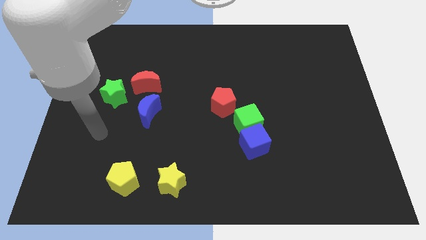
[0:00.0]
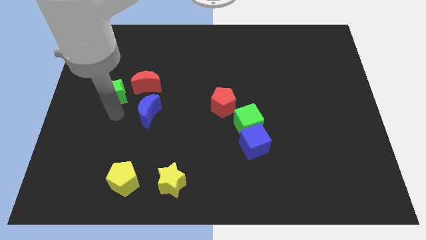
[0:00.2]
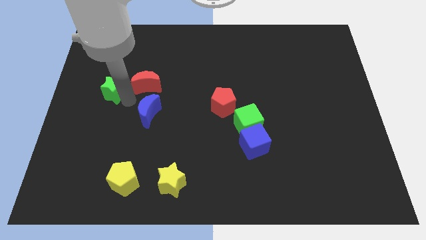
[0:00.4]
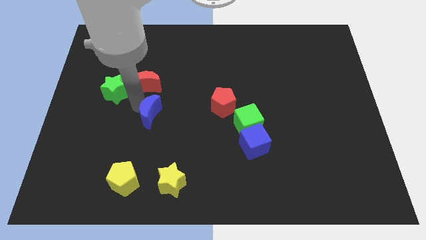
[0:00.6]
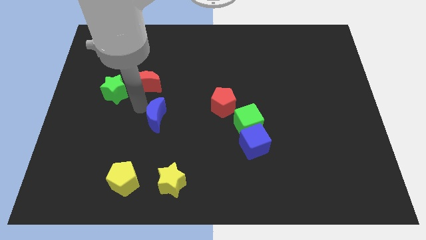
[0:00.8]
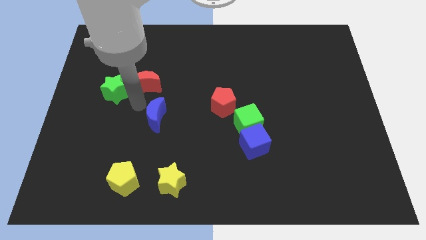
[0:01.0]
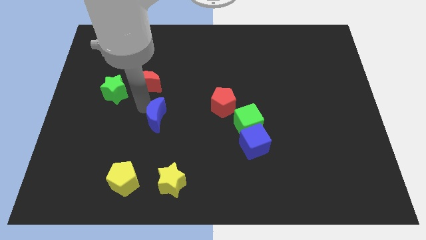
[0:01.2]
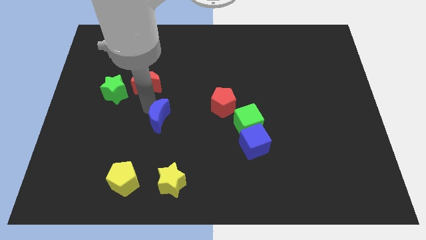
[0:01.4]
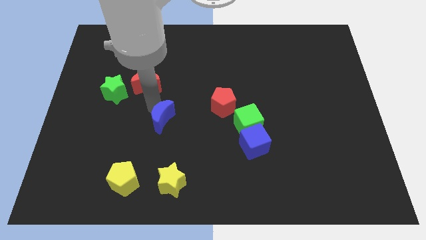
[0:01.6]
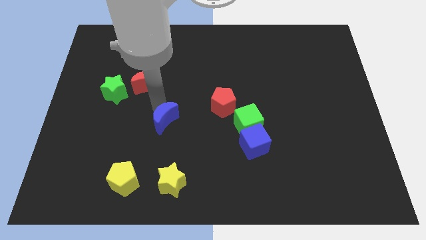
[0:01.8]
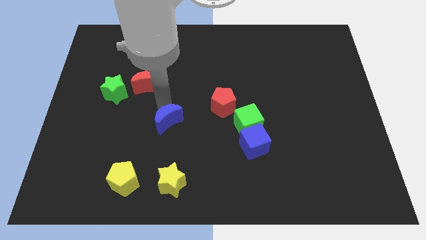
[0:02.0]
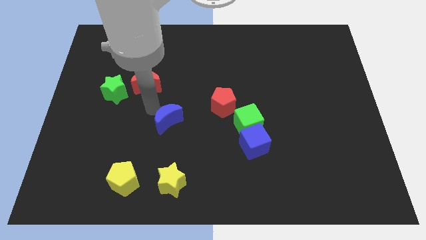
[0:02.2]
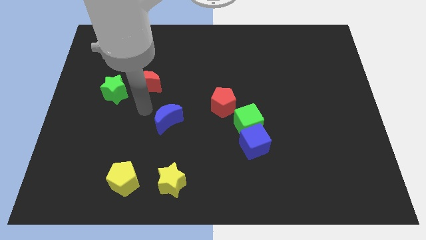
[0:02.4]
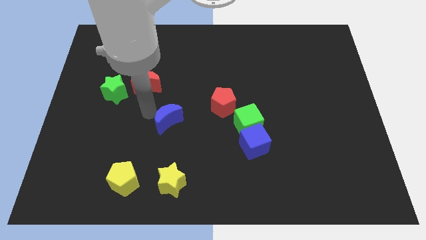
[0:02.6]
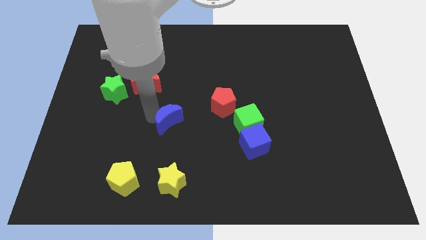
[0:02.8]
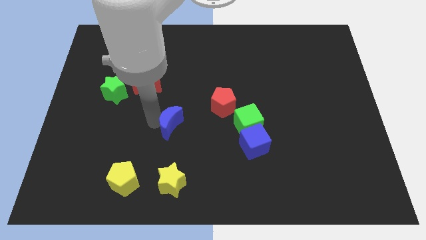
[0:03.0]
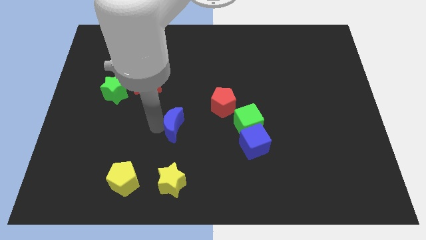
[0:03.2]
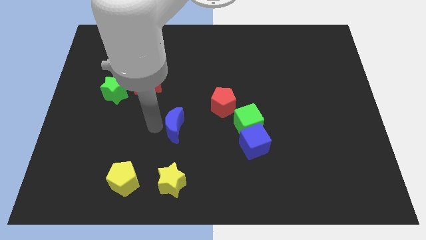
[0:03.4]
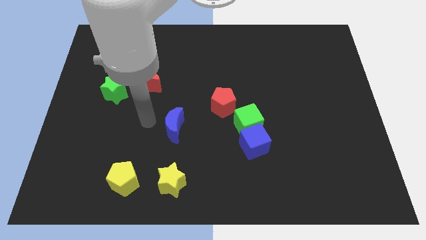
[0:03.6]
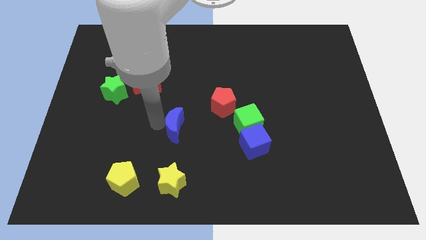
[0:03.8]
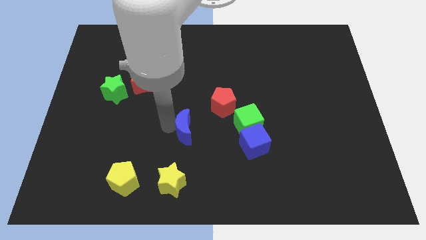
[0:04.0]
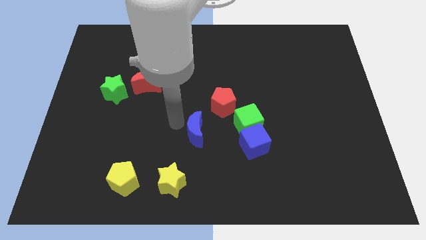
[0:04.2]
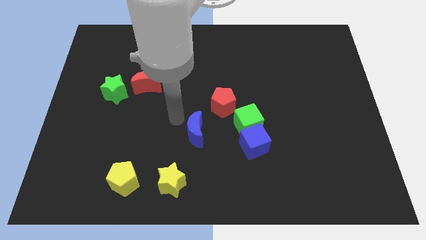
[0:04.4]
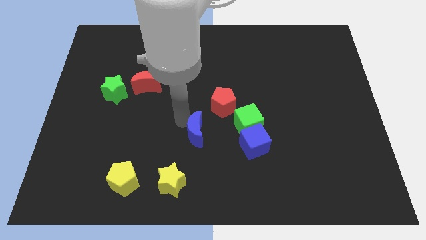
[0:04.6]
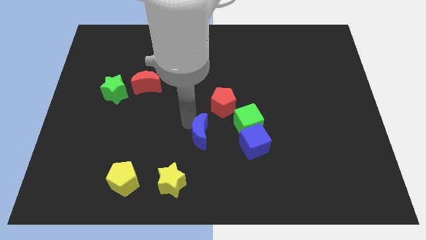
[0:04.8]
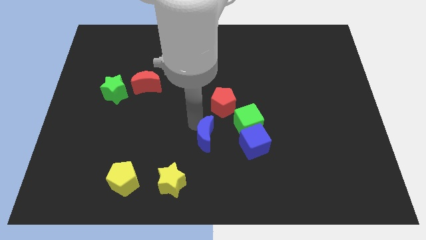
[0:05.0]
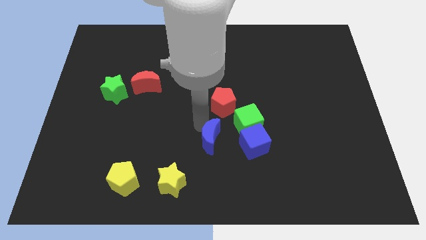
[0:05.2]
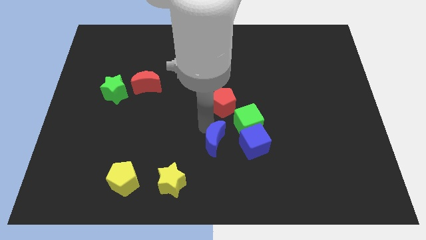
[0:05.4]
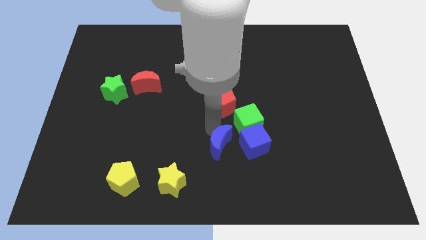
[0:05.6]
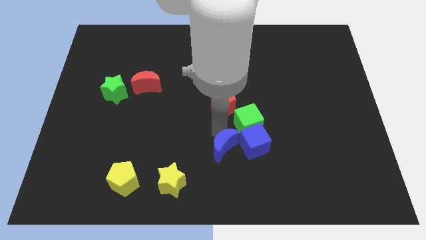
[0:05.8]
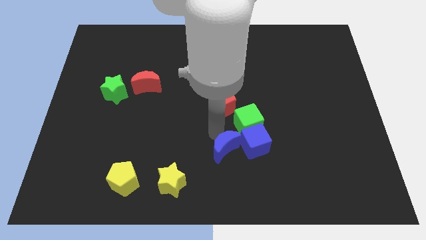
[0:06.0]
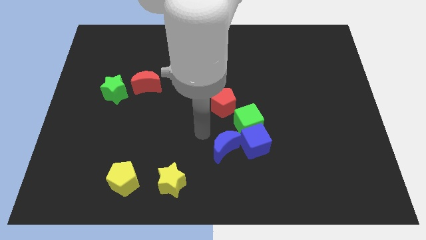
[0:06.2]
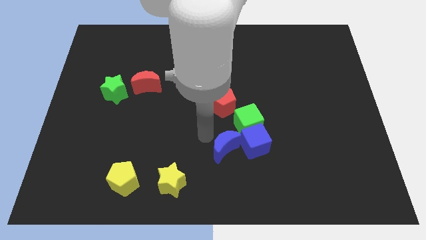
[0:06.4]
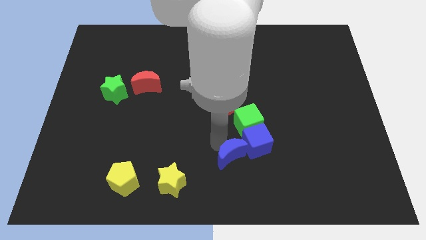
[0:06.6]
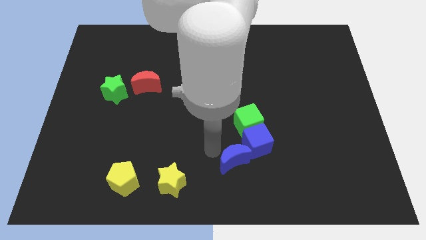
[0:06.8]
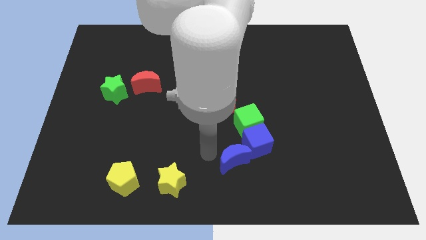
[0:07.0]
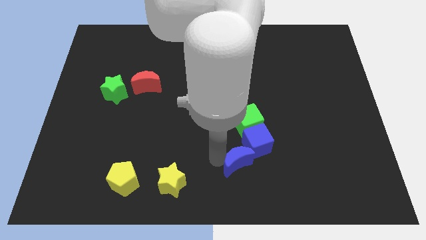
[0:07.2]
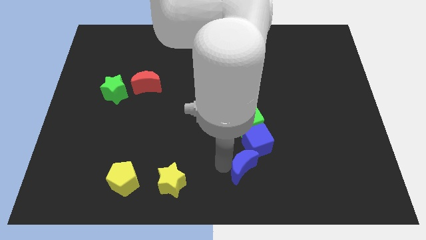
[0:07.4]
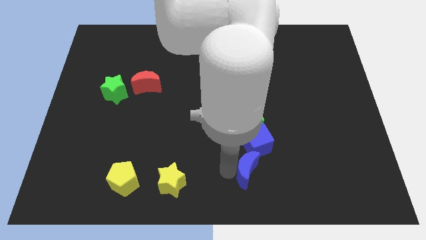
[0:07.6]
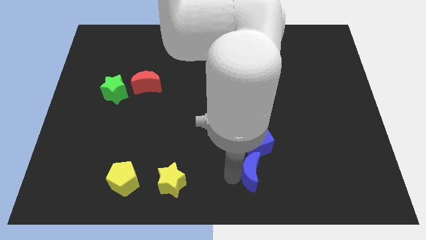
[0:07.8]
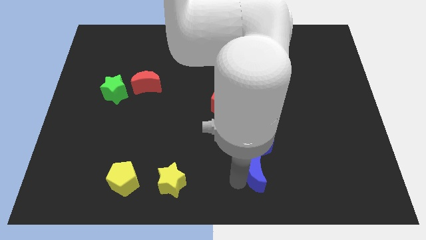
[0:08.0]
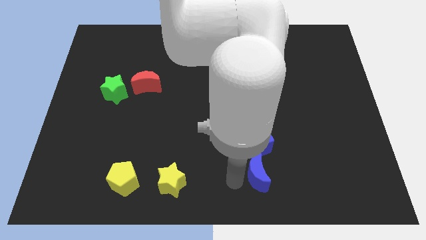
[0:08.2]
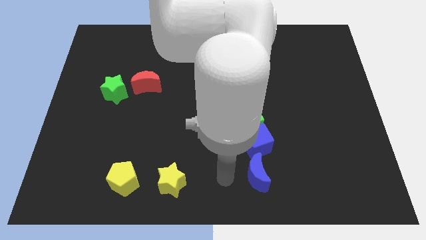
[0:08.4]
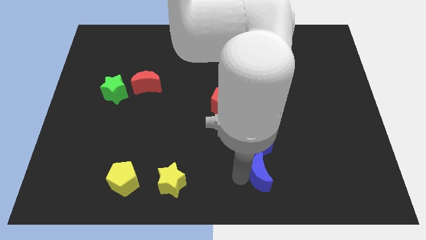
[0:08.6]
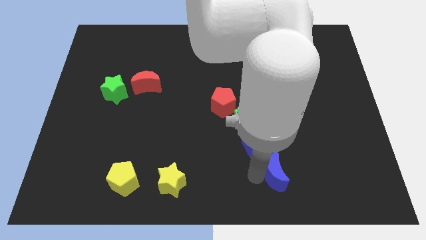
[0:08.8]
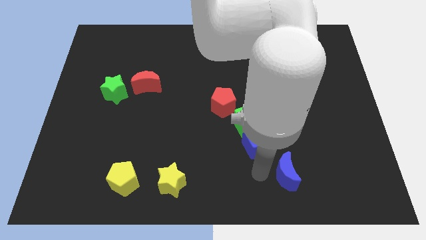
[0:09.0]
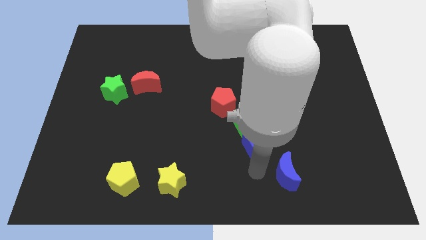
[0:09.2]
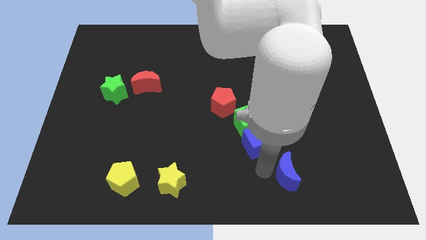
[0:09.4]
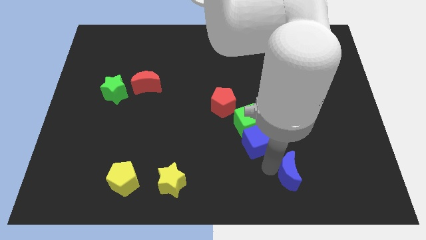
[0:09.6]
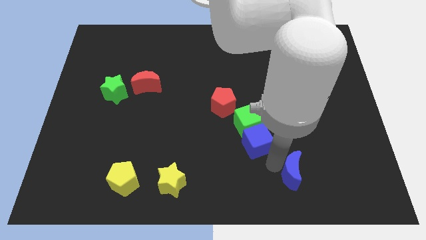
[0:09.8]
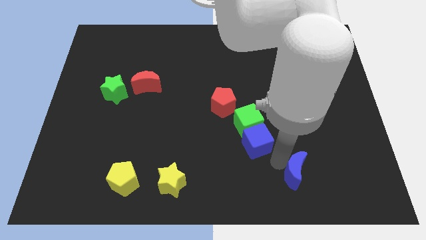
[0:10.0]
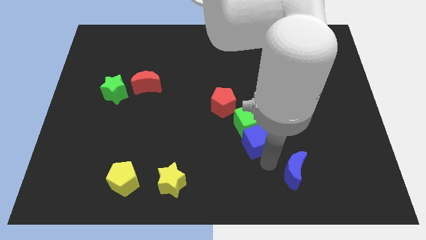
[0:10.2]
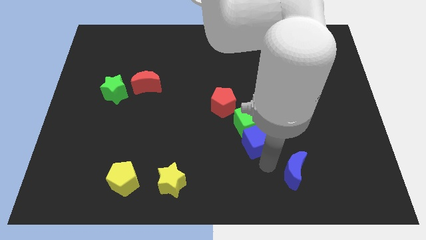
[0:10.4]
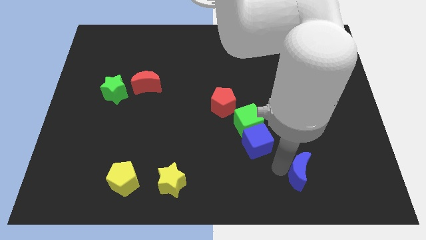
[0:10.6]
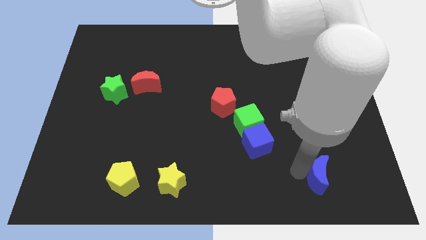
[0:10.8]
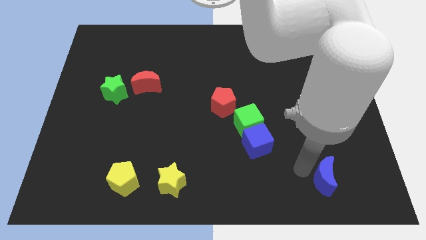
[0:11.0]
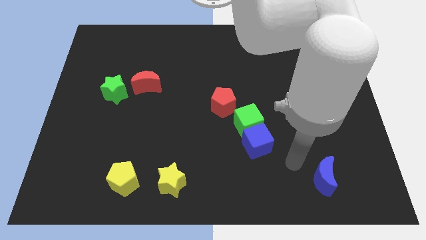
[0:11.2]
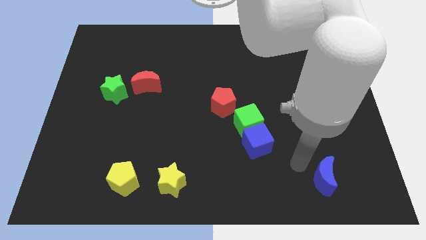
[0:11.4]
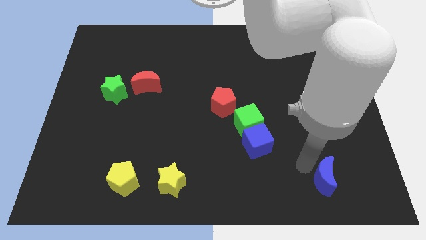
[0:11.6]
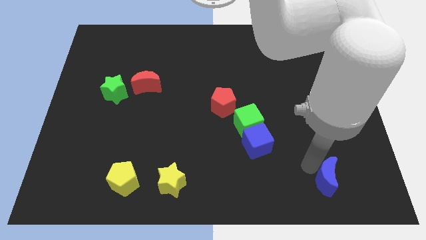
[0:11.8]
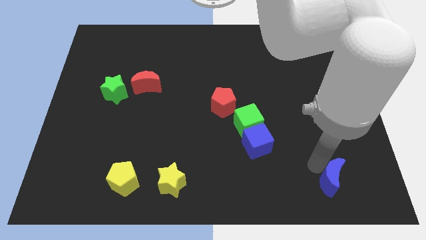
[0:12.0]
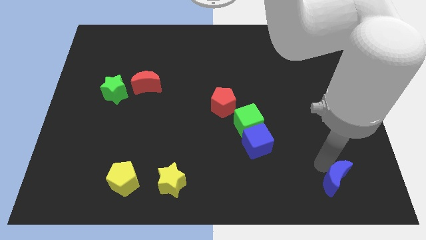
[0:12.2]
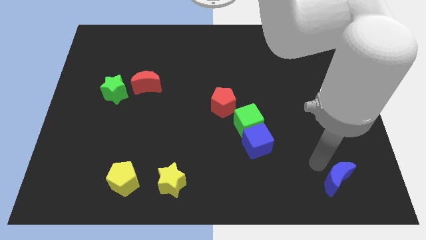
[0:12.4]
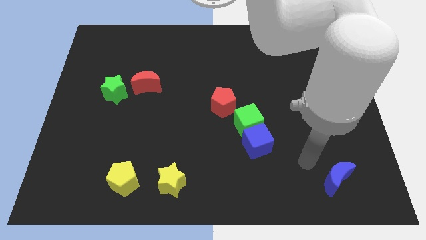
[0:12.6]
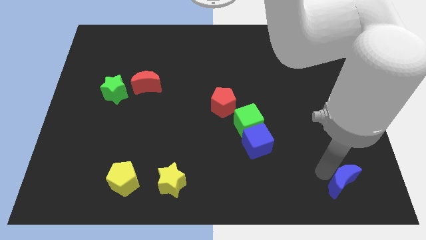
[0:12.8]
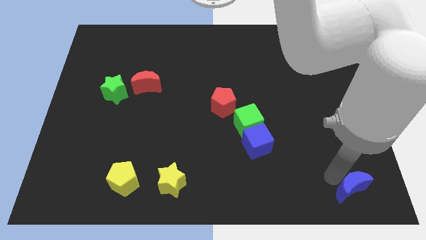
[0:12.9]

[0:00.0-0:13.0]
put the blue moon to the bottom right corner

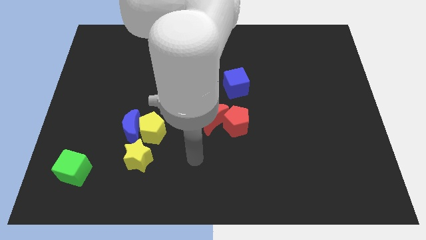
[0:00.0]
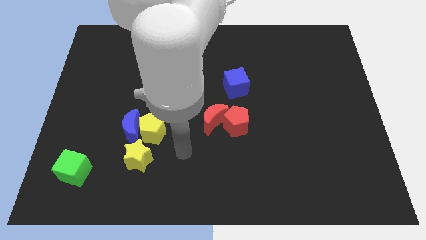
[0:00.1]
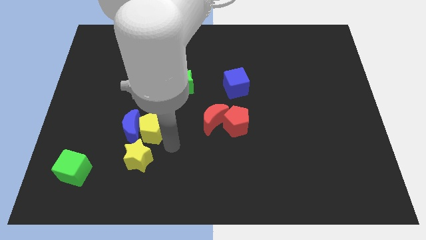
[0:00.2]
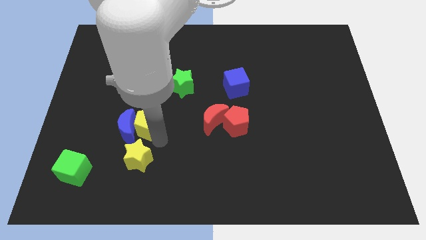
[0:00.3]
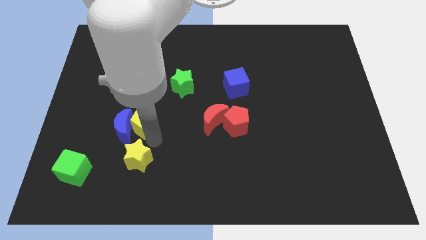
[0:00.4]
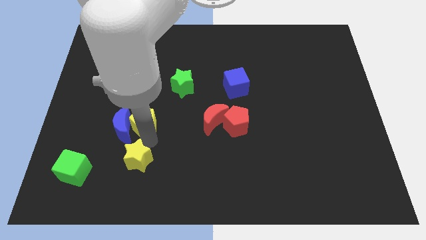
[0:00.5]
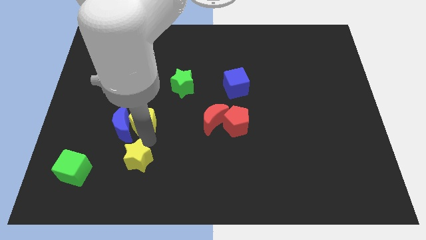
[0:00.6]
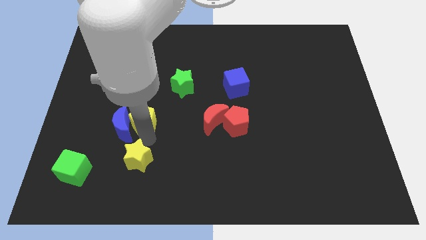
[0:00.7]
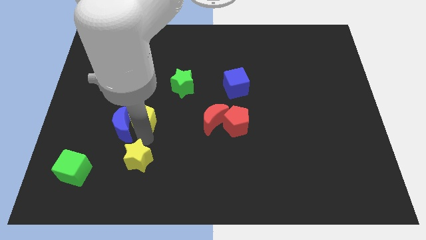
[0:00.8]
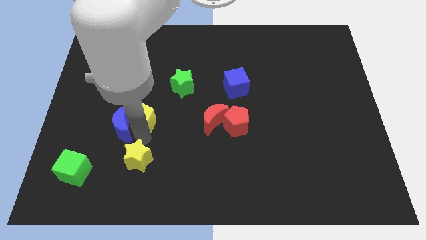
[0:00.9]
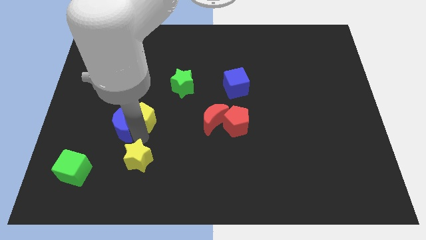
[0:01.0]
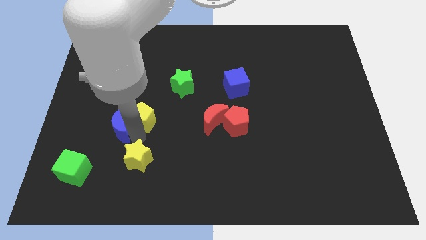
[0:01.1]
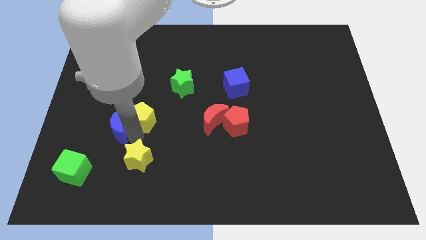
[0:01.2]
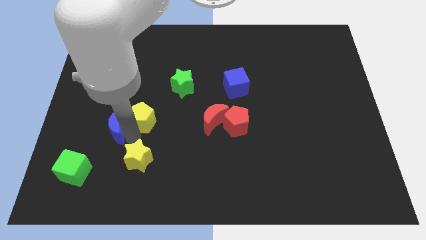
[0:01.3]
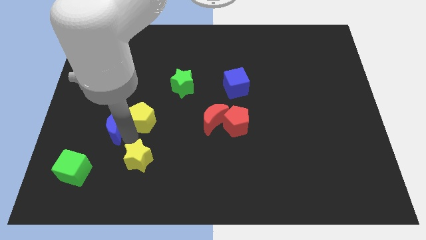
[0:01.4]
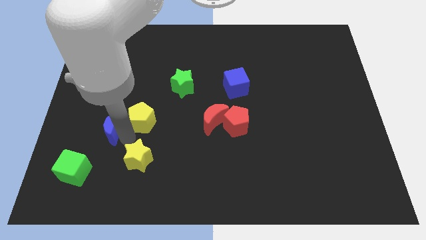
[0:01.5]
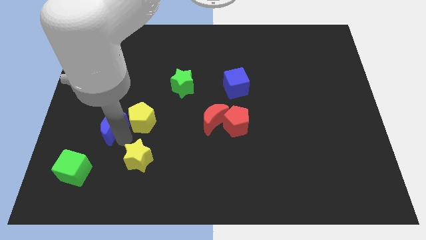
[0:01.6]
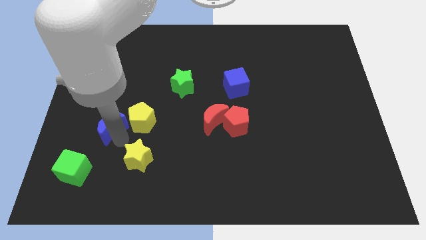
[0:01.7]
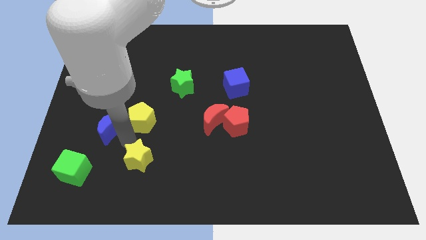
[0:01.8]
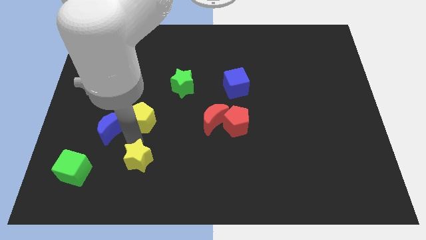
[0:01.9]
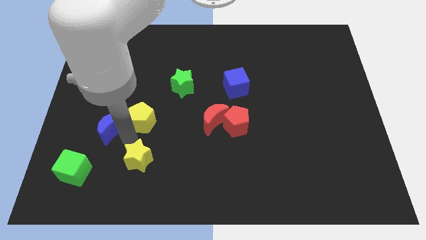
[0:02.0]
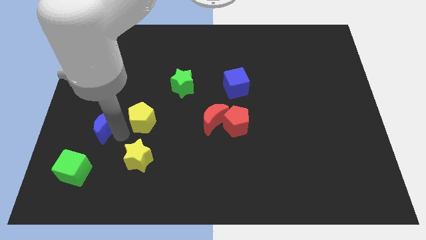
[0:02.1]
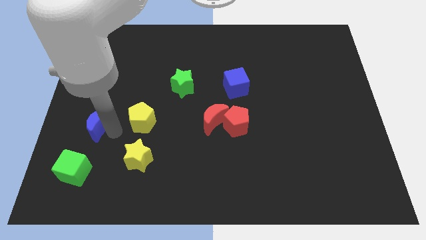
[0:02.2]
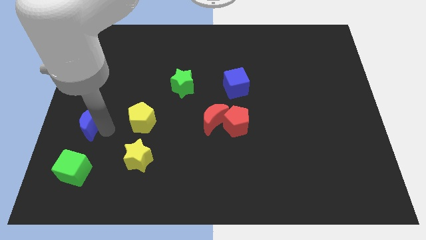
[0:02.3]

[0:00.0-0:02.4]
push the blue moon to the left side
